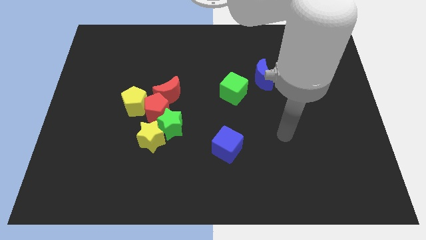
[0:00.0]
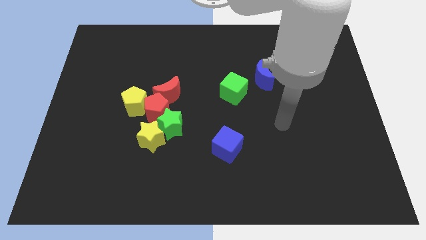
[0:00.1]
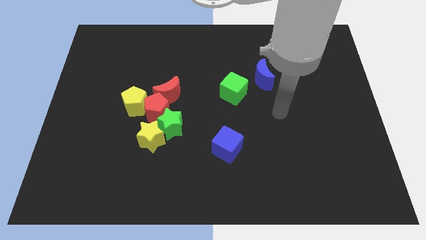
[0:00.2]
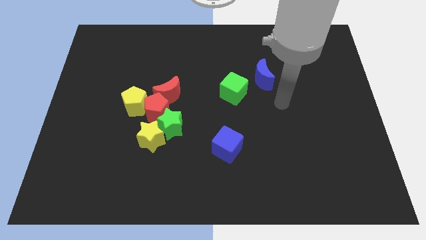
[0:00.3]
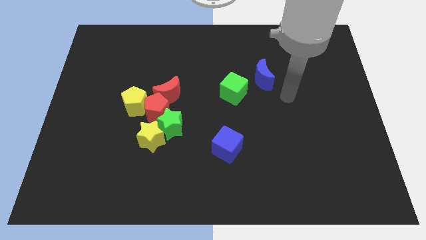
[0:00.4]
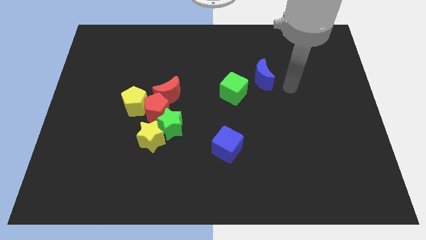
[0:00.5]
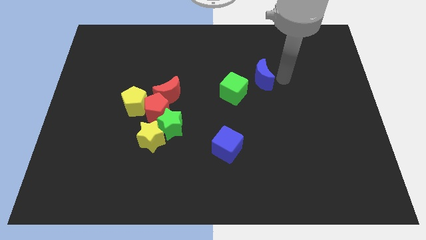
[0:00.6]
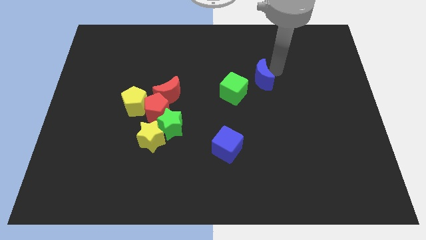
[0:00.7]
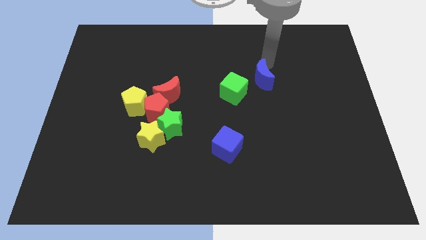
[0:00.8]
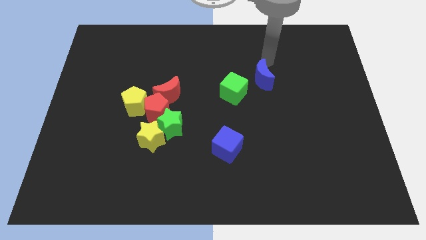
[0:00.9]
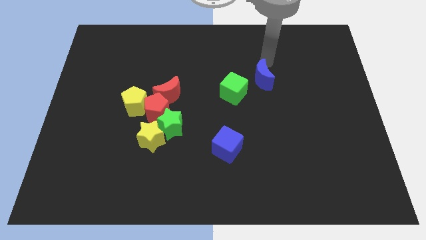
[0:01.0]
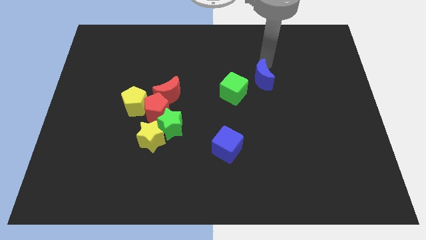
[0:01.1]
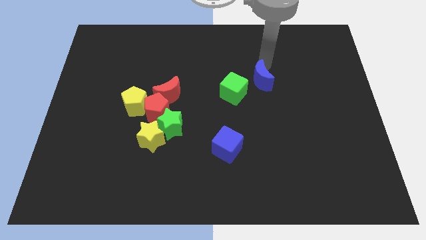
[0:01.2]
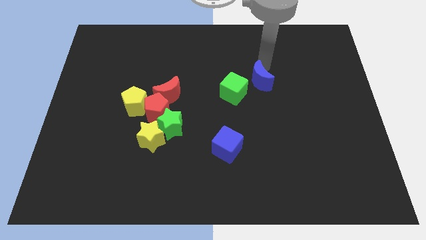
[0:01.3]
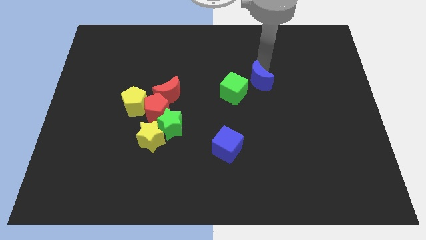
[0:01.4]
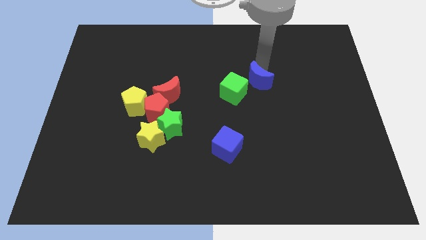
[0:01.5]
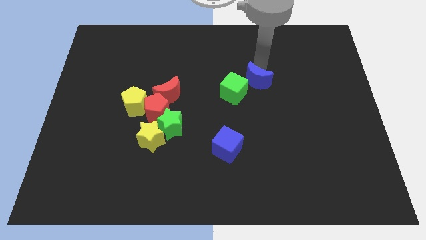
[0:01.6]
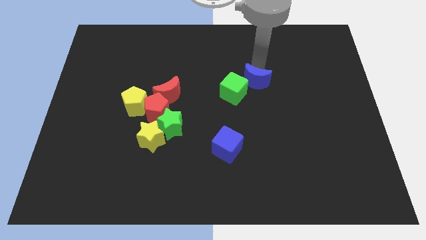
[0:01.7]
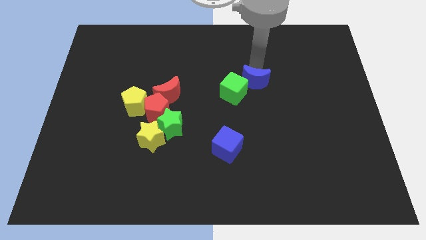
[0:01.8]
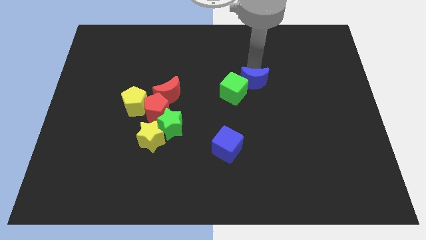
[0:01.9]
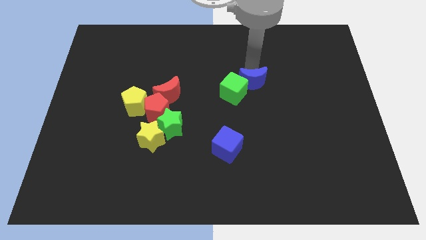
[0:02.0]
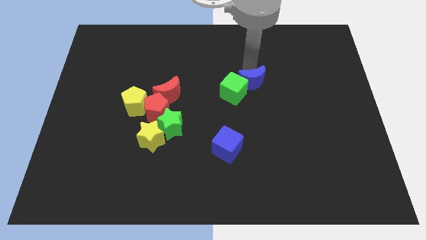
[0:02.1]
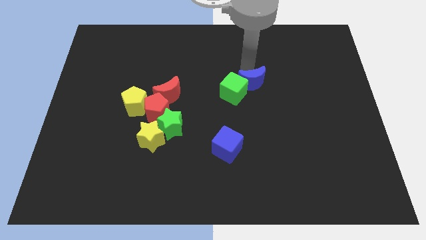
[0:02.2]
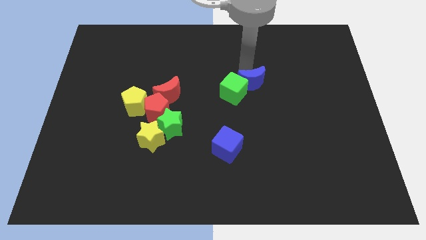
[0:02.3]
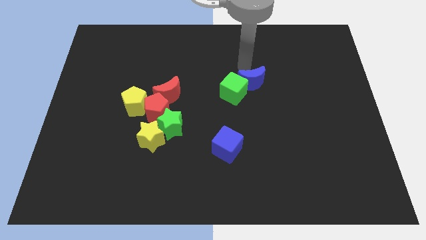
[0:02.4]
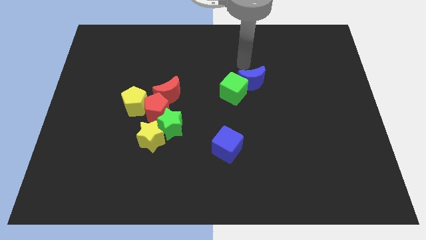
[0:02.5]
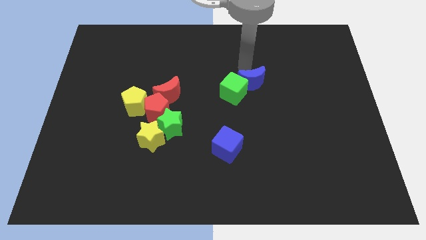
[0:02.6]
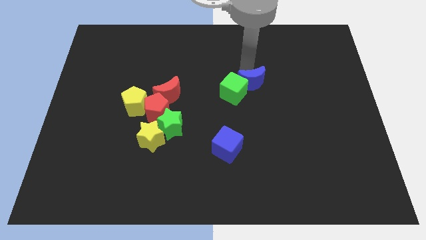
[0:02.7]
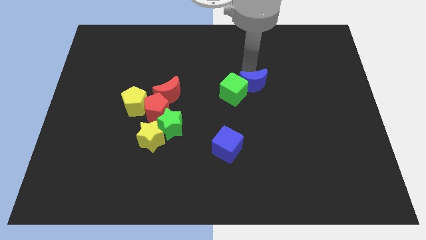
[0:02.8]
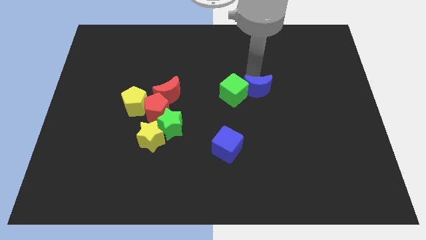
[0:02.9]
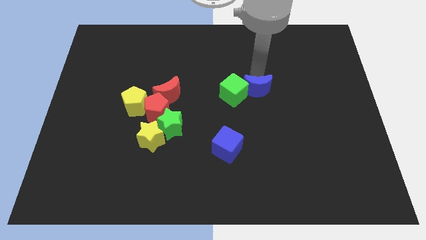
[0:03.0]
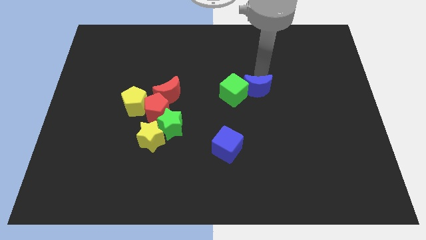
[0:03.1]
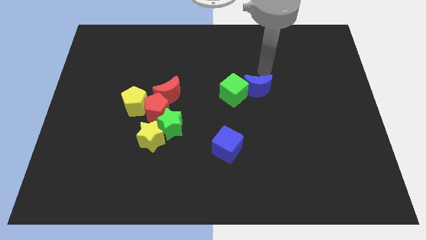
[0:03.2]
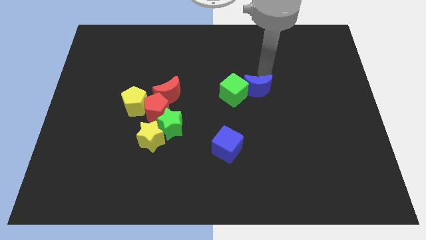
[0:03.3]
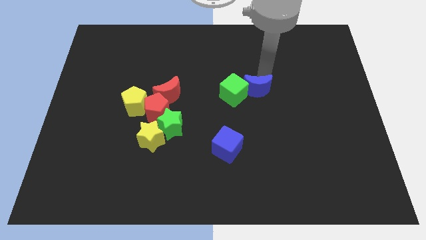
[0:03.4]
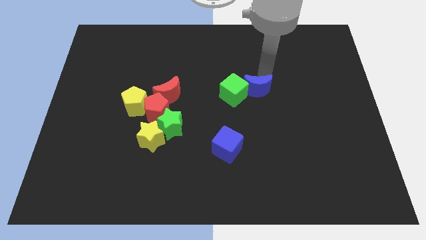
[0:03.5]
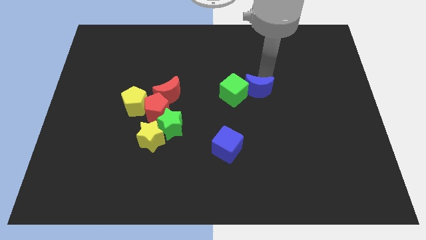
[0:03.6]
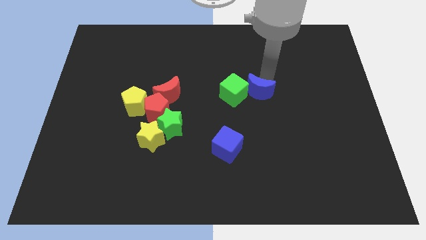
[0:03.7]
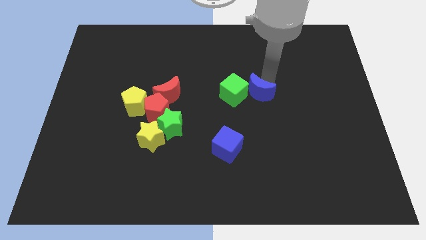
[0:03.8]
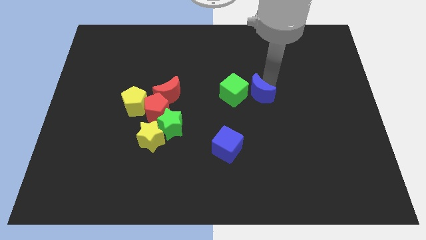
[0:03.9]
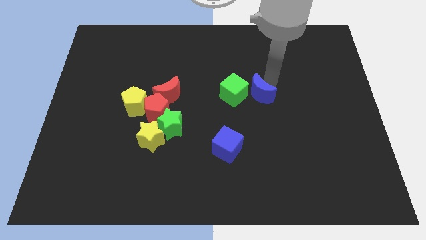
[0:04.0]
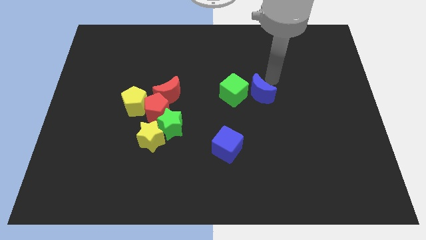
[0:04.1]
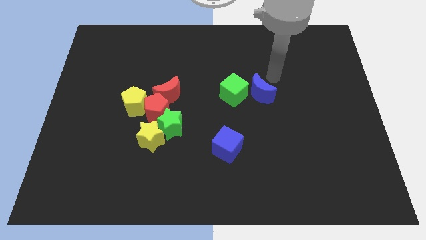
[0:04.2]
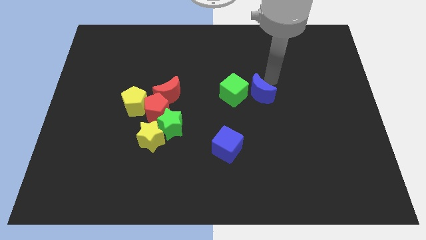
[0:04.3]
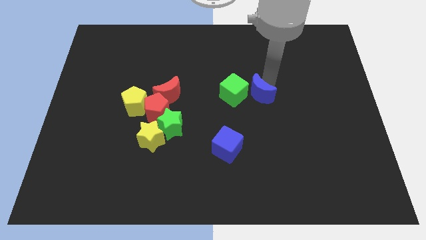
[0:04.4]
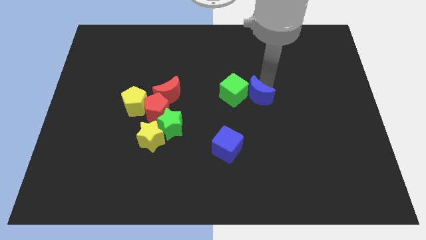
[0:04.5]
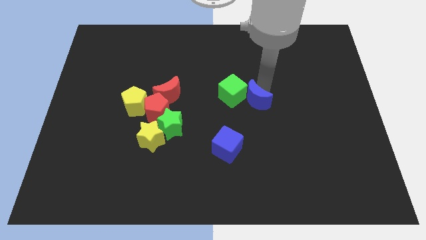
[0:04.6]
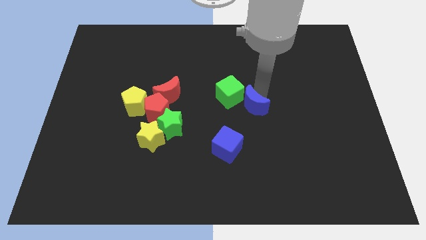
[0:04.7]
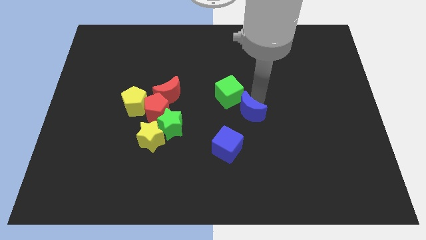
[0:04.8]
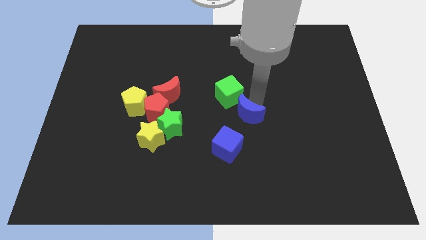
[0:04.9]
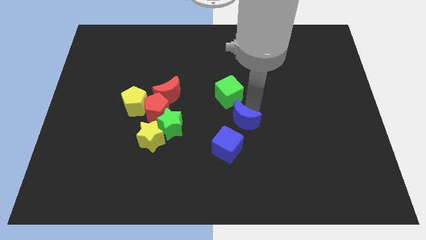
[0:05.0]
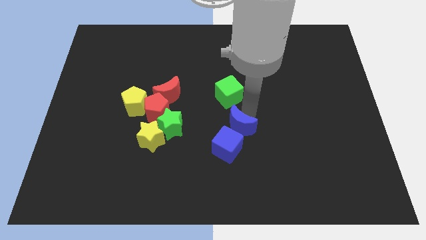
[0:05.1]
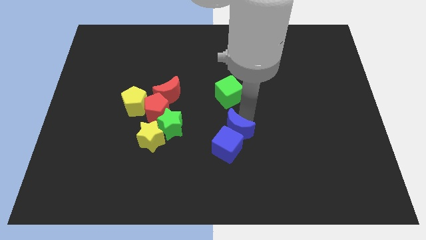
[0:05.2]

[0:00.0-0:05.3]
put the blue moon towards the blue cube

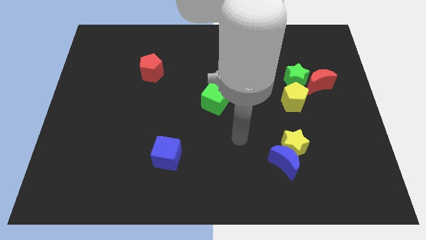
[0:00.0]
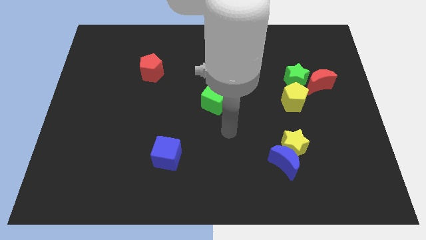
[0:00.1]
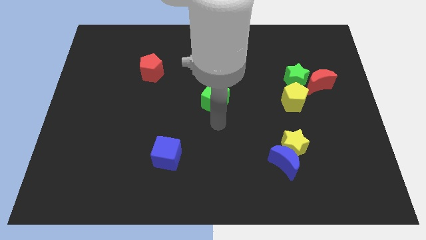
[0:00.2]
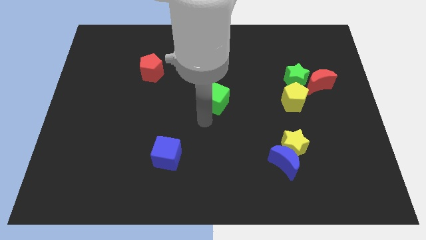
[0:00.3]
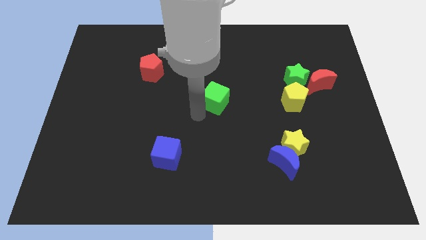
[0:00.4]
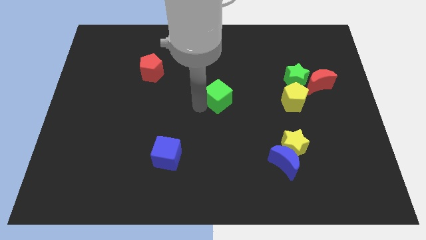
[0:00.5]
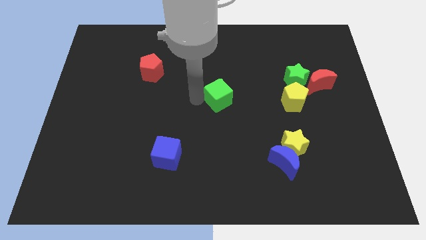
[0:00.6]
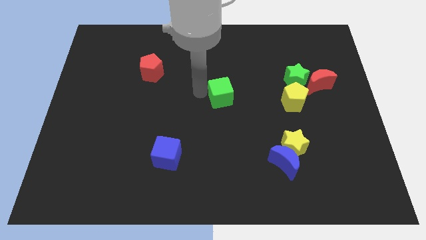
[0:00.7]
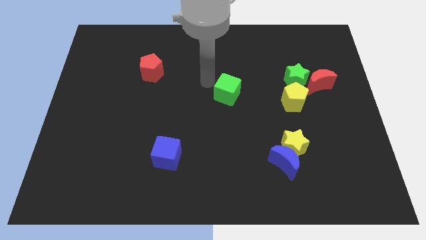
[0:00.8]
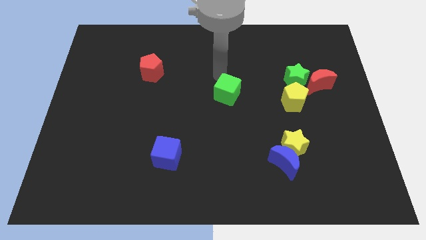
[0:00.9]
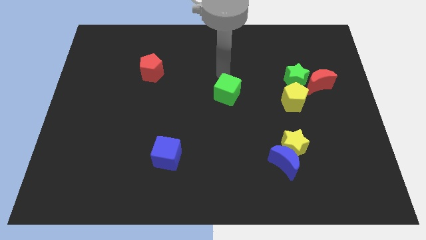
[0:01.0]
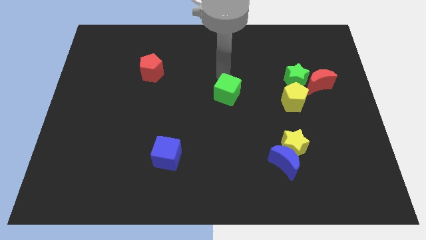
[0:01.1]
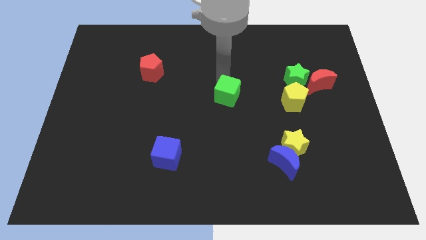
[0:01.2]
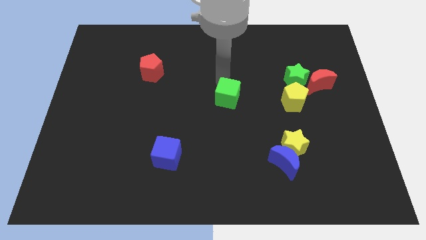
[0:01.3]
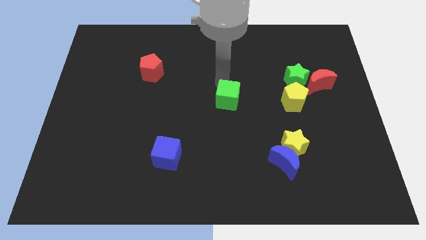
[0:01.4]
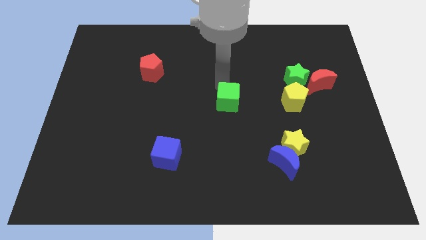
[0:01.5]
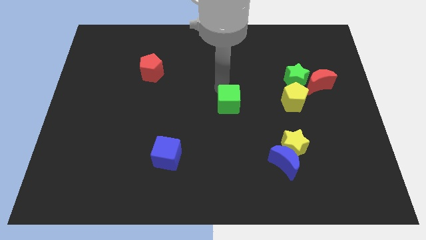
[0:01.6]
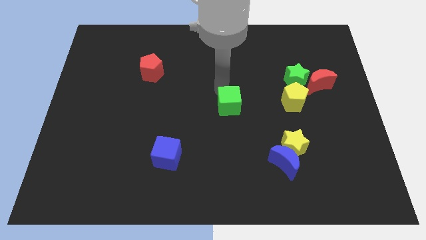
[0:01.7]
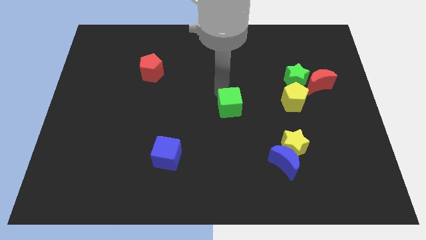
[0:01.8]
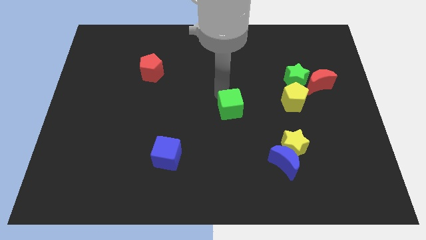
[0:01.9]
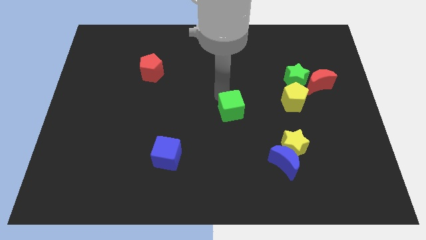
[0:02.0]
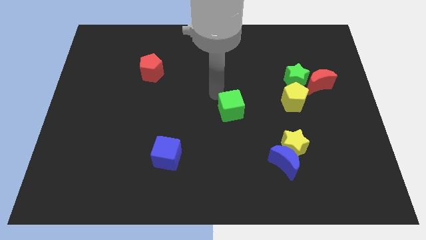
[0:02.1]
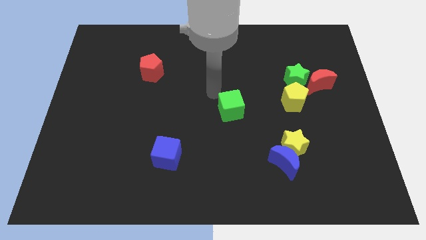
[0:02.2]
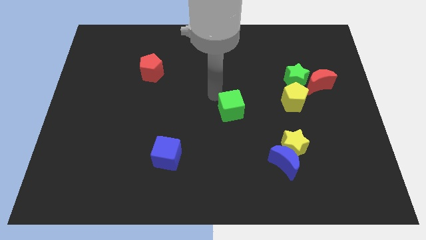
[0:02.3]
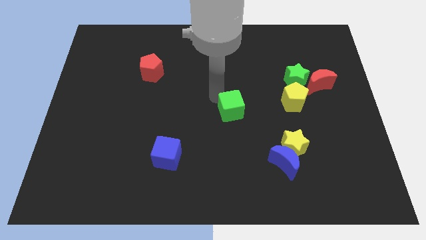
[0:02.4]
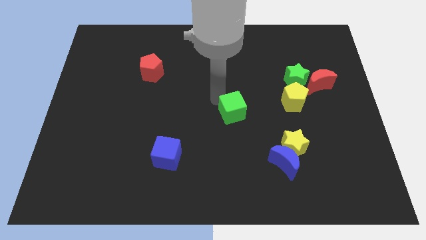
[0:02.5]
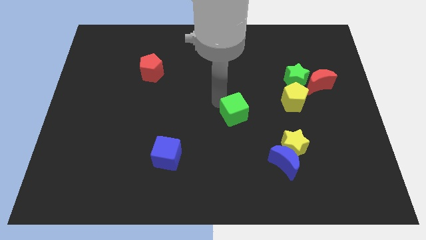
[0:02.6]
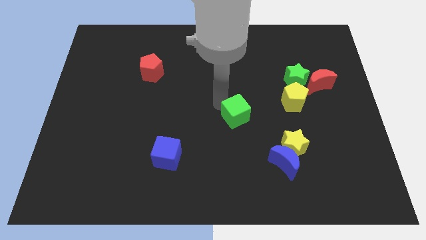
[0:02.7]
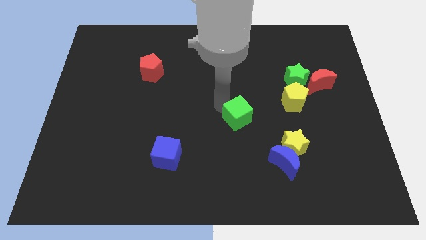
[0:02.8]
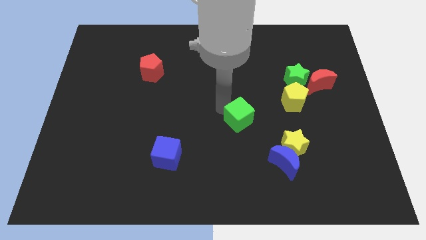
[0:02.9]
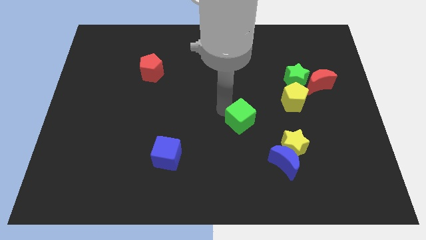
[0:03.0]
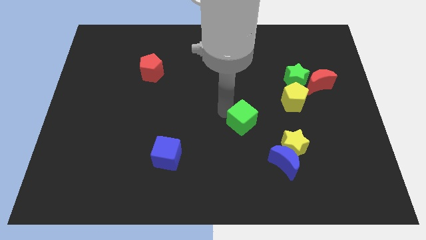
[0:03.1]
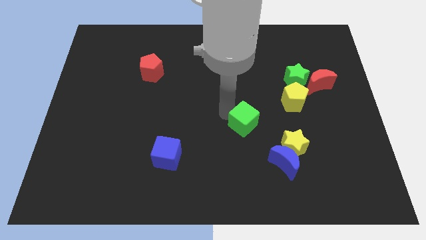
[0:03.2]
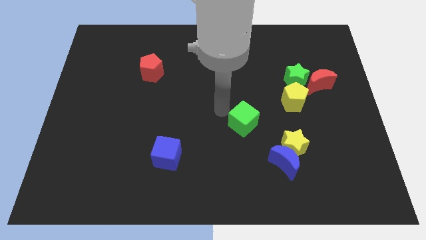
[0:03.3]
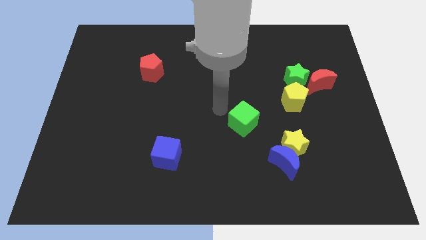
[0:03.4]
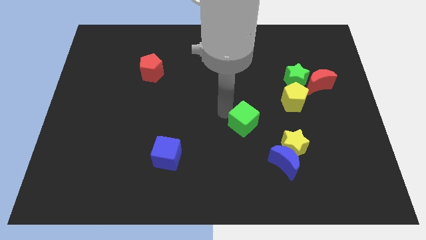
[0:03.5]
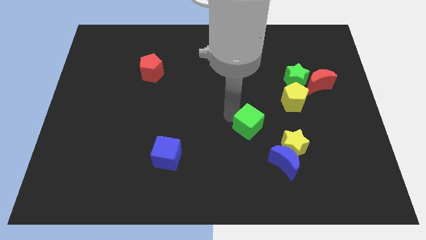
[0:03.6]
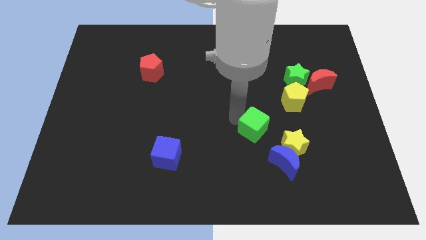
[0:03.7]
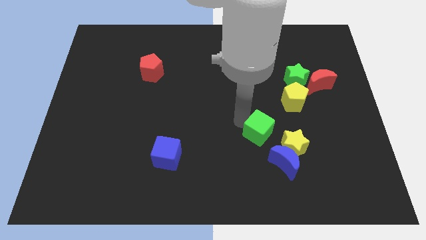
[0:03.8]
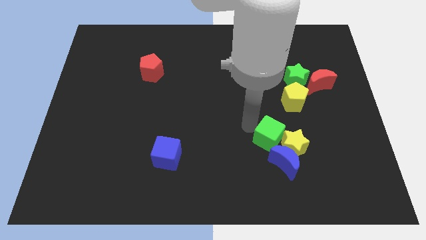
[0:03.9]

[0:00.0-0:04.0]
move the green cube to the yellow star
